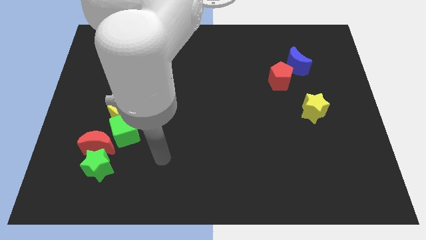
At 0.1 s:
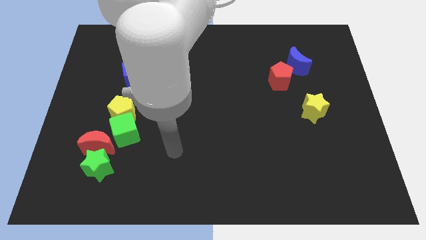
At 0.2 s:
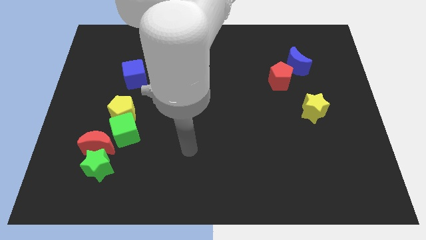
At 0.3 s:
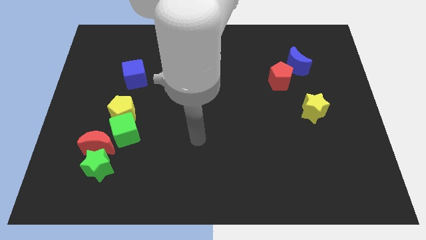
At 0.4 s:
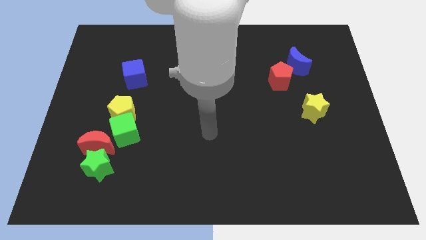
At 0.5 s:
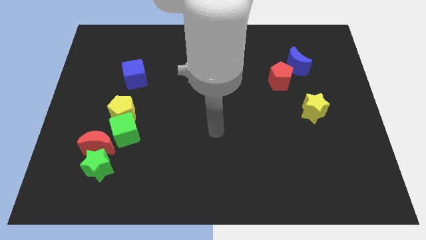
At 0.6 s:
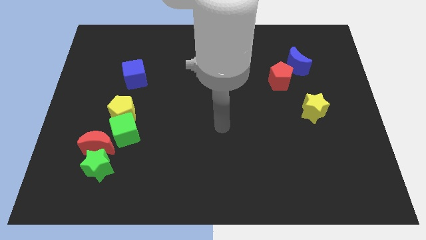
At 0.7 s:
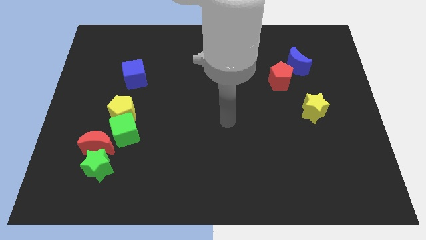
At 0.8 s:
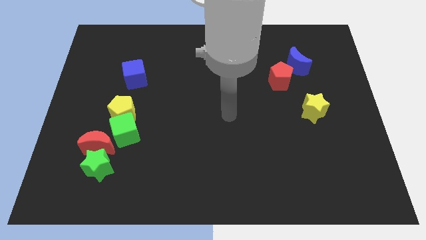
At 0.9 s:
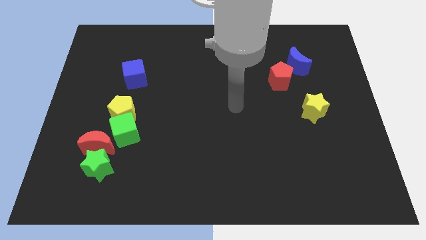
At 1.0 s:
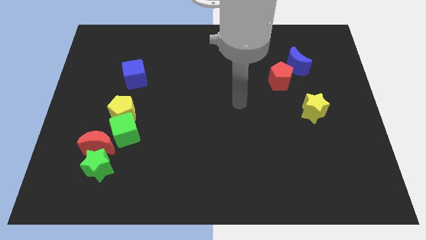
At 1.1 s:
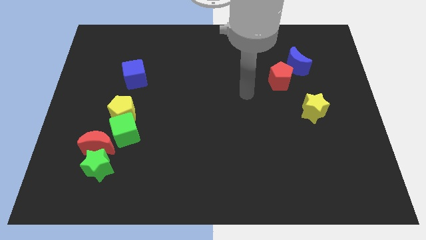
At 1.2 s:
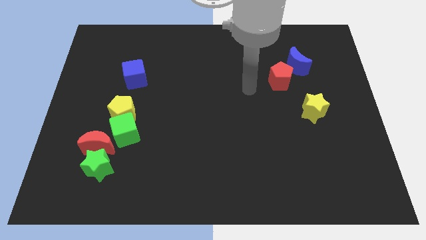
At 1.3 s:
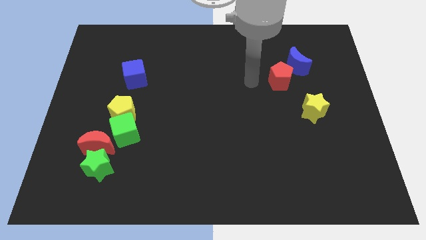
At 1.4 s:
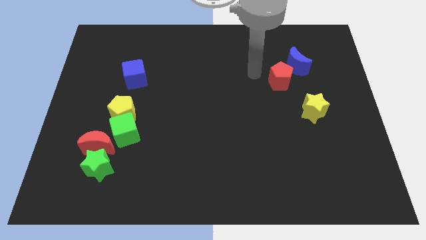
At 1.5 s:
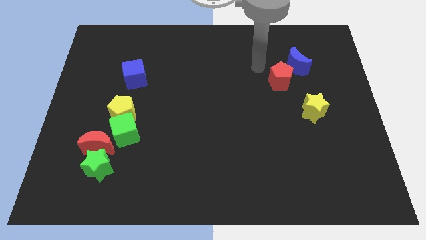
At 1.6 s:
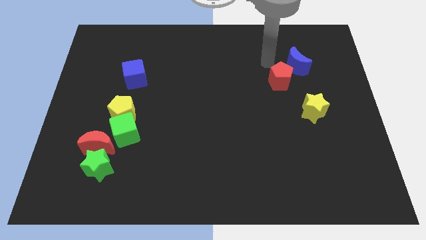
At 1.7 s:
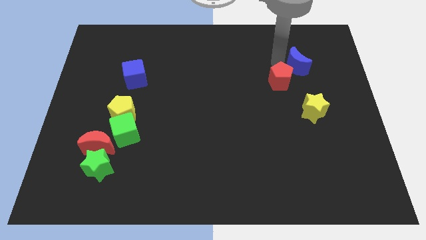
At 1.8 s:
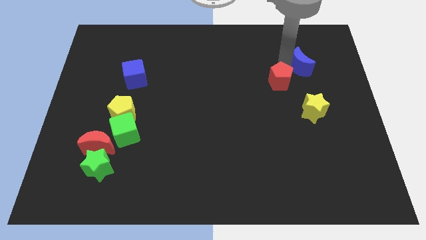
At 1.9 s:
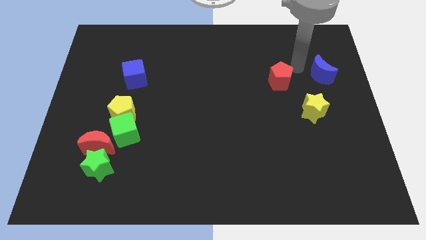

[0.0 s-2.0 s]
move the red pentagon away from the blue moon

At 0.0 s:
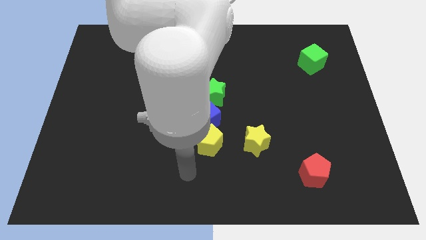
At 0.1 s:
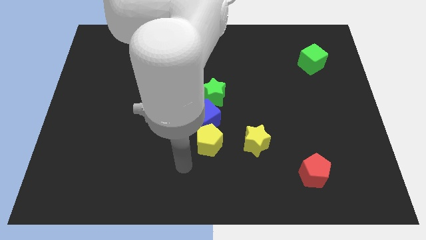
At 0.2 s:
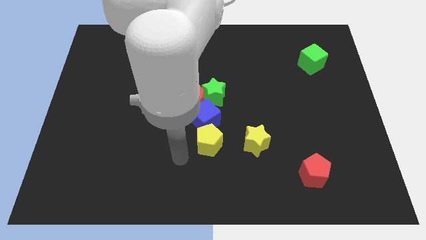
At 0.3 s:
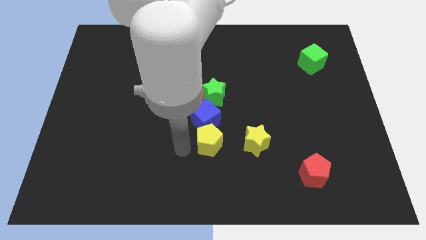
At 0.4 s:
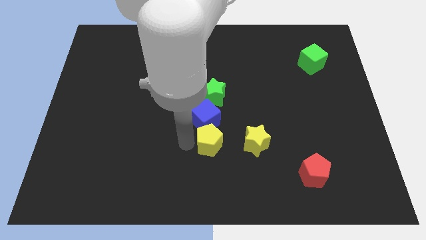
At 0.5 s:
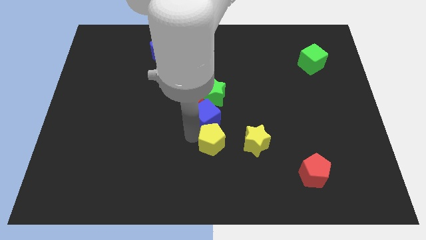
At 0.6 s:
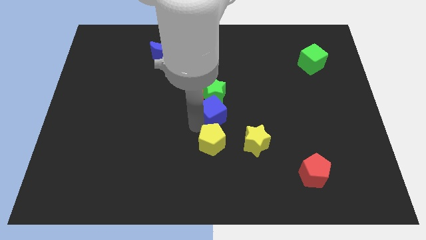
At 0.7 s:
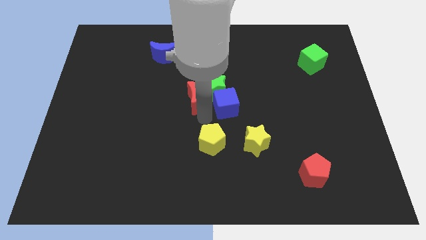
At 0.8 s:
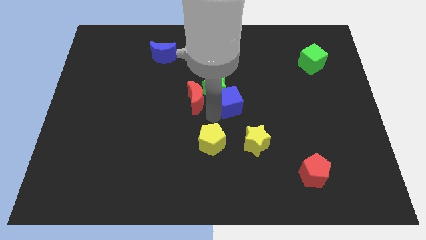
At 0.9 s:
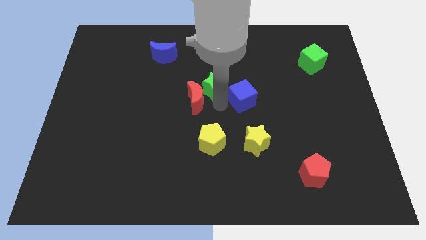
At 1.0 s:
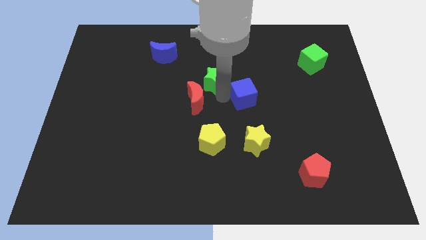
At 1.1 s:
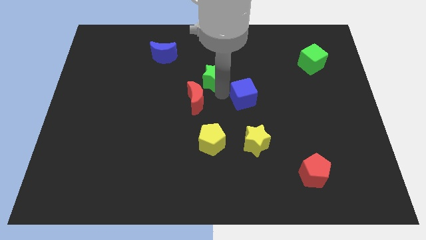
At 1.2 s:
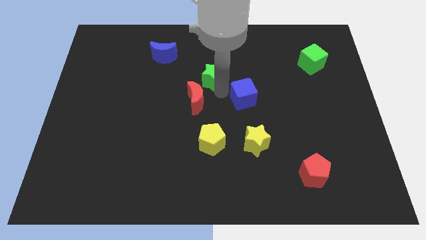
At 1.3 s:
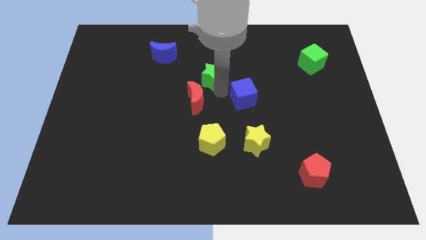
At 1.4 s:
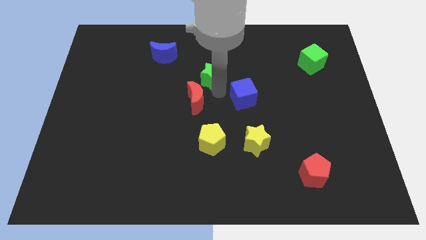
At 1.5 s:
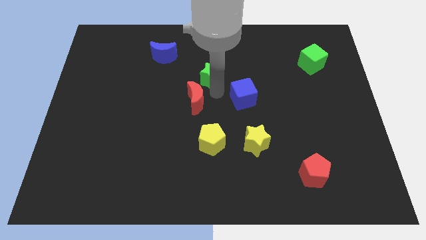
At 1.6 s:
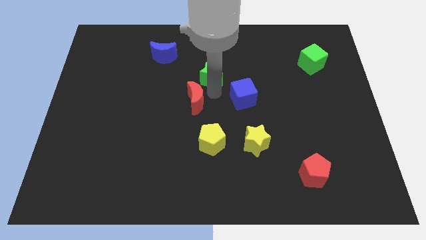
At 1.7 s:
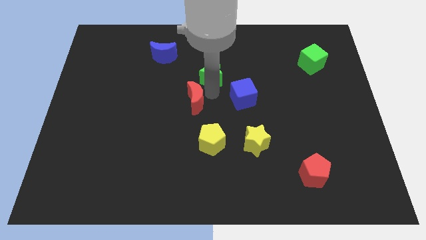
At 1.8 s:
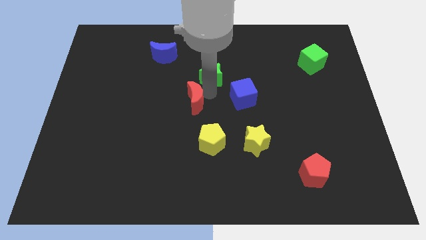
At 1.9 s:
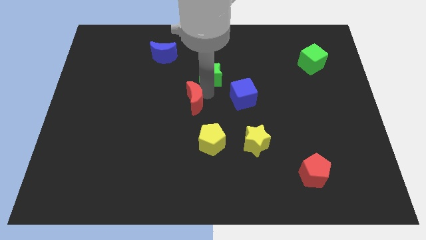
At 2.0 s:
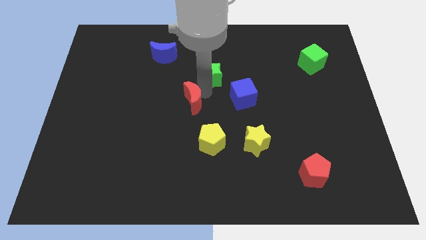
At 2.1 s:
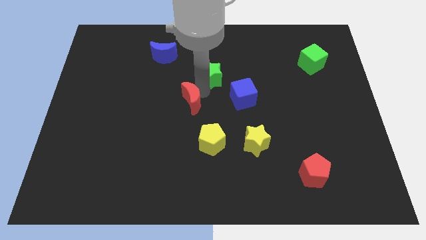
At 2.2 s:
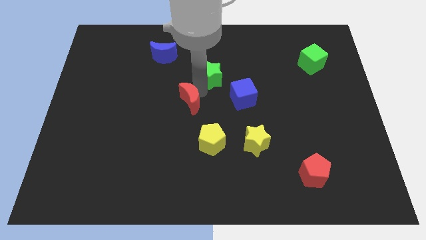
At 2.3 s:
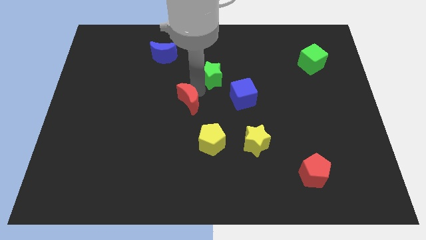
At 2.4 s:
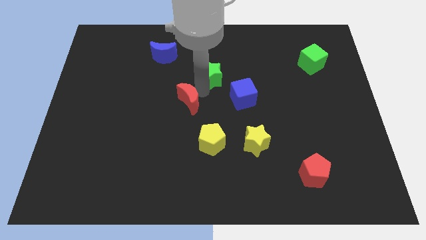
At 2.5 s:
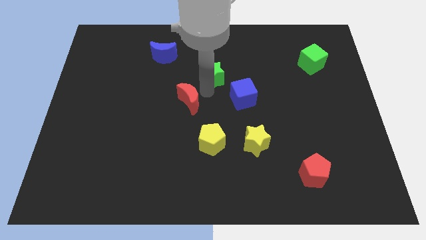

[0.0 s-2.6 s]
pull the red moon apart from the green star and blue cube

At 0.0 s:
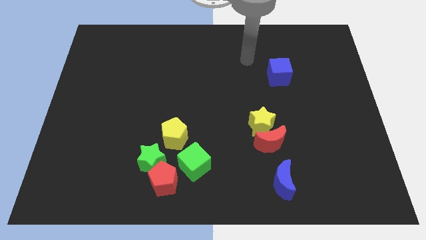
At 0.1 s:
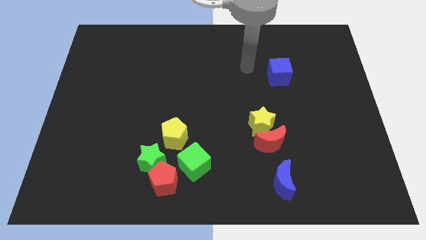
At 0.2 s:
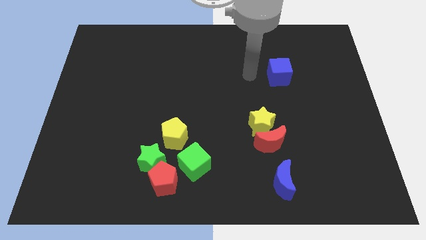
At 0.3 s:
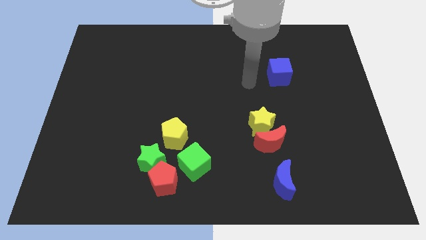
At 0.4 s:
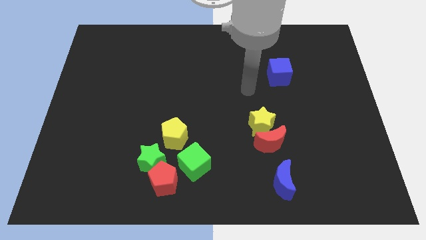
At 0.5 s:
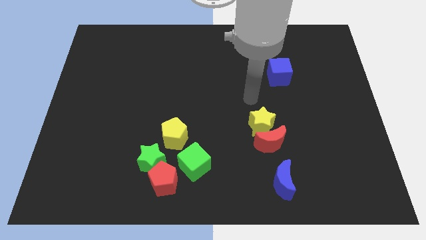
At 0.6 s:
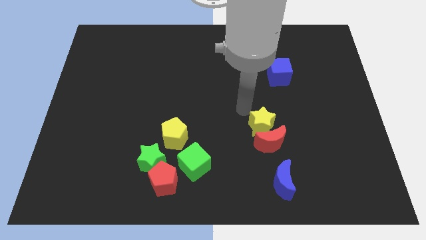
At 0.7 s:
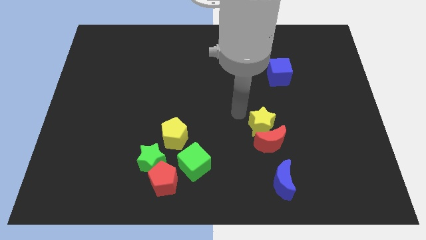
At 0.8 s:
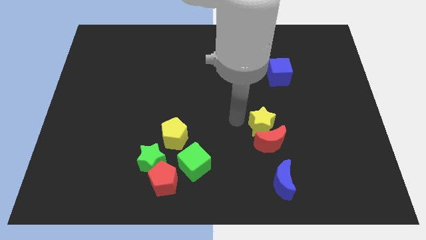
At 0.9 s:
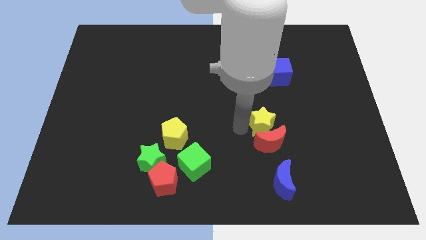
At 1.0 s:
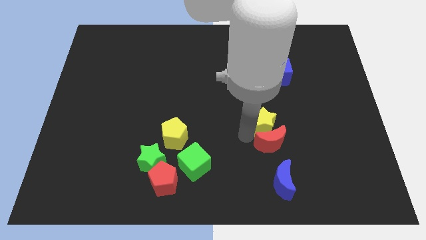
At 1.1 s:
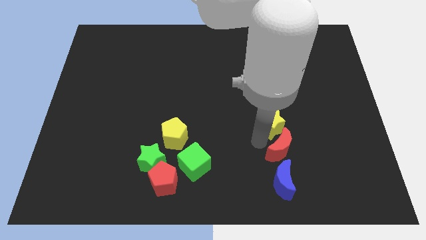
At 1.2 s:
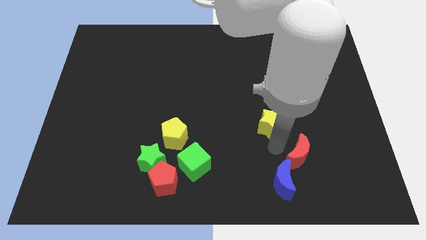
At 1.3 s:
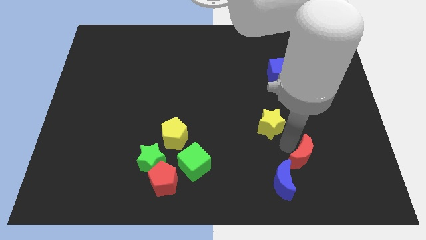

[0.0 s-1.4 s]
pull the yellow star apart from the red moon

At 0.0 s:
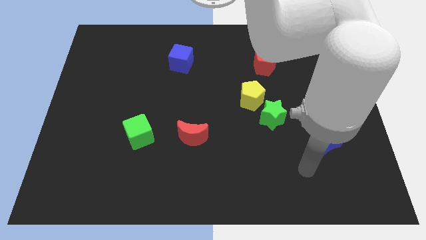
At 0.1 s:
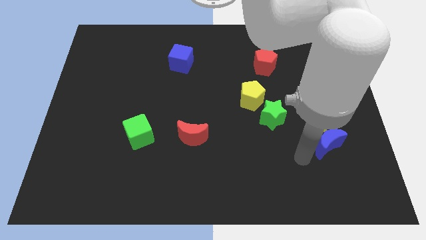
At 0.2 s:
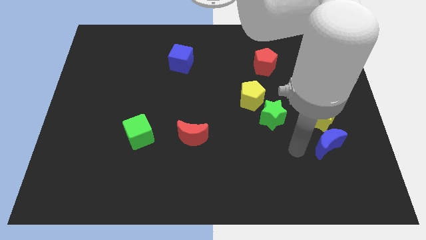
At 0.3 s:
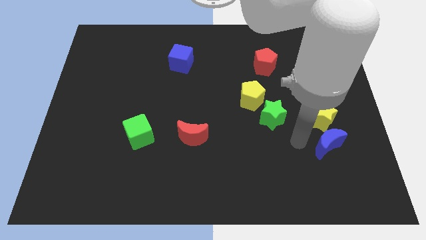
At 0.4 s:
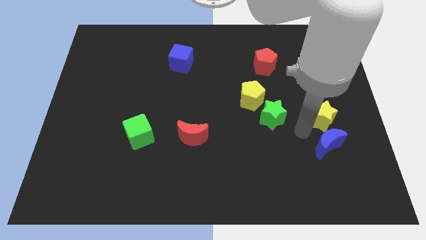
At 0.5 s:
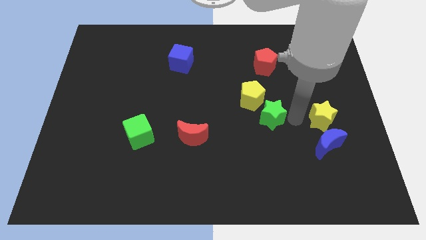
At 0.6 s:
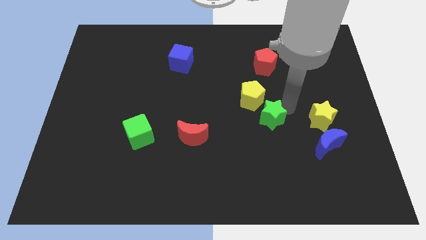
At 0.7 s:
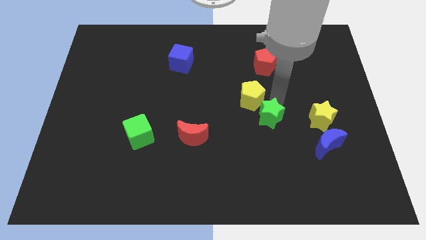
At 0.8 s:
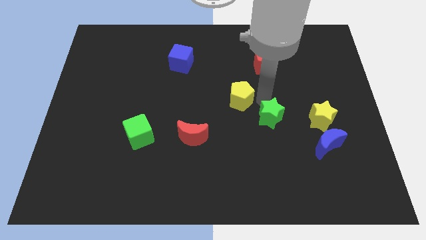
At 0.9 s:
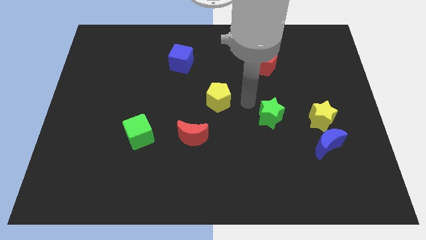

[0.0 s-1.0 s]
pull the green star apart from the yellow pentagon

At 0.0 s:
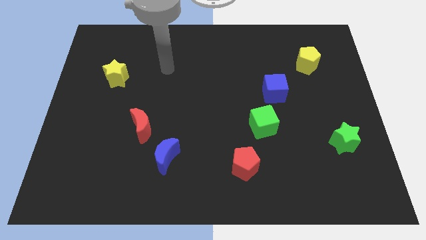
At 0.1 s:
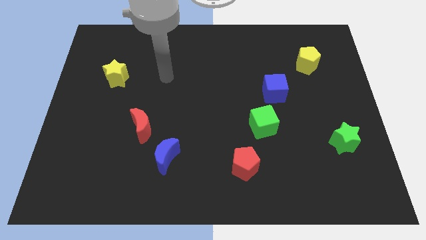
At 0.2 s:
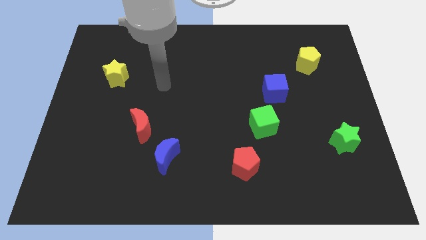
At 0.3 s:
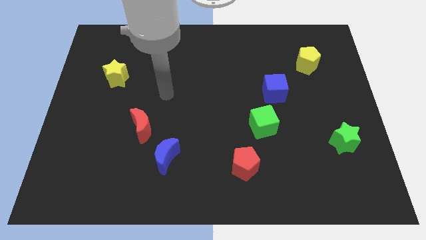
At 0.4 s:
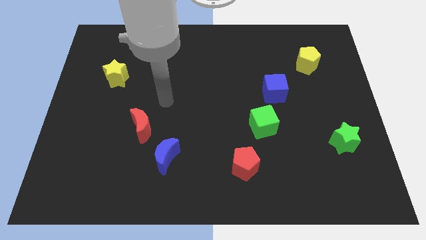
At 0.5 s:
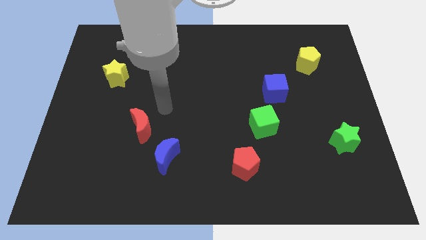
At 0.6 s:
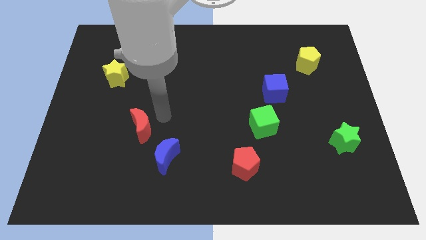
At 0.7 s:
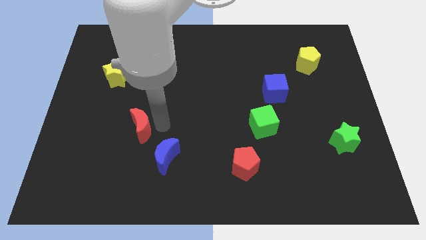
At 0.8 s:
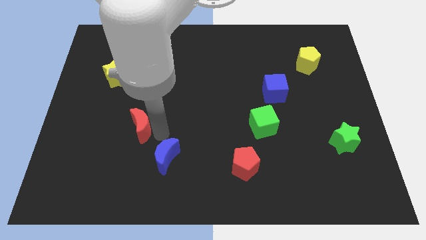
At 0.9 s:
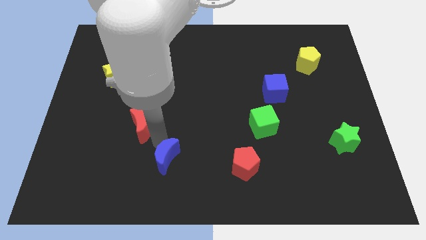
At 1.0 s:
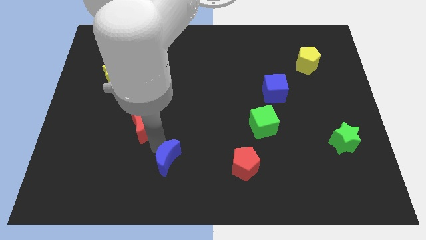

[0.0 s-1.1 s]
separate the red moon from the blue moon

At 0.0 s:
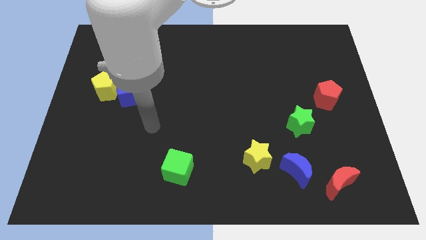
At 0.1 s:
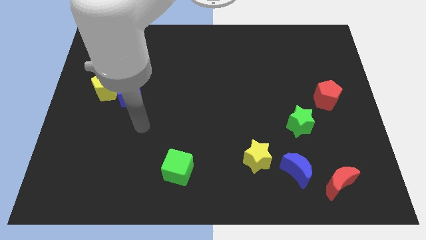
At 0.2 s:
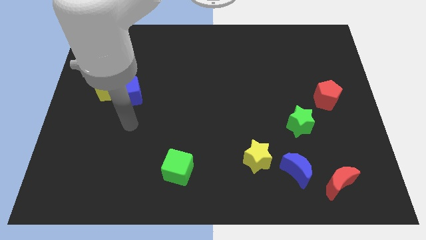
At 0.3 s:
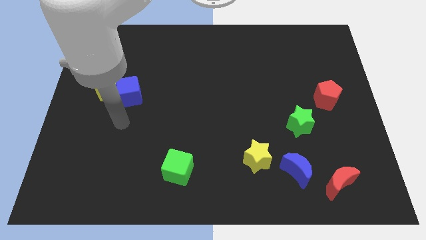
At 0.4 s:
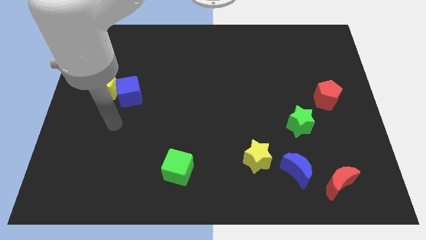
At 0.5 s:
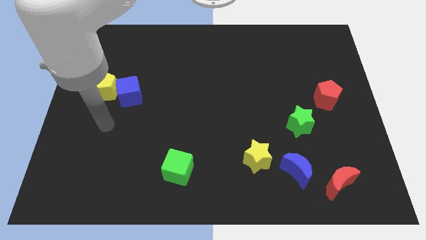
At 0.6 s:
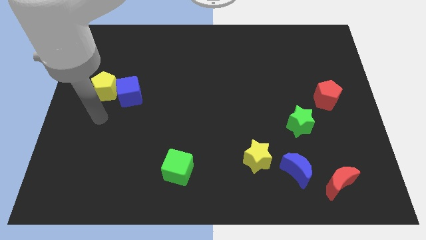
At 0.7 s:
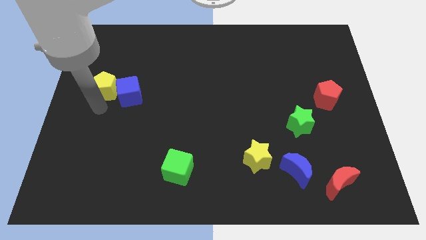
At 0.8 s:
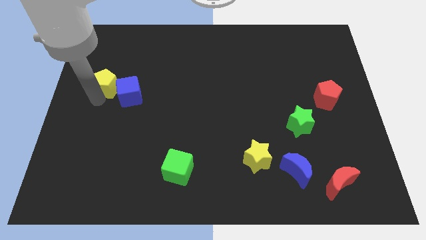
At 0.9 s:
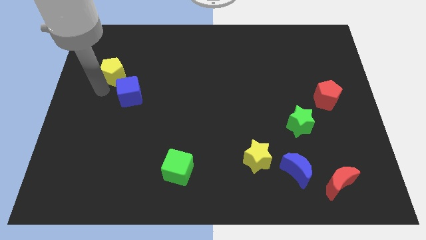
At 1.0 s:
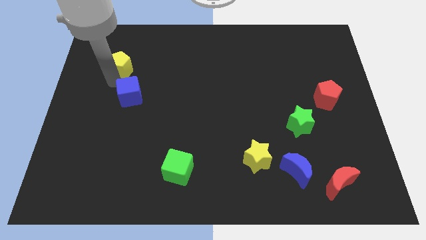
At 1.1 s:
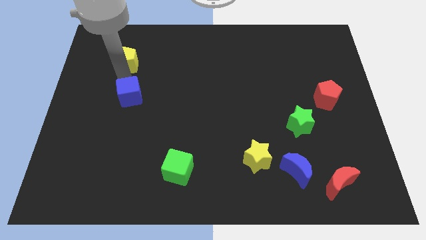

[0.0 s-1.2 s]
move the blue cube away from the yellow pentagon
